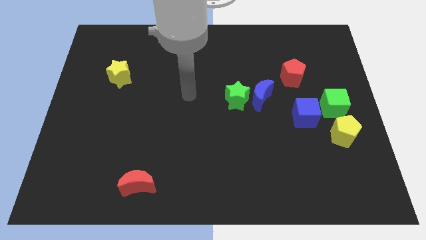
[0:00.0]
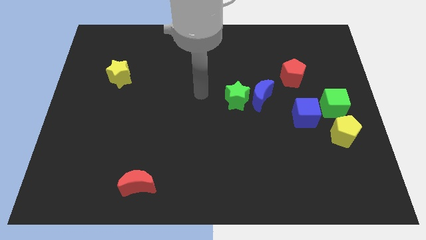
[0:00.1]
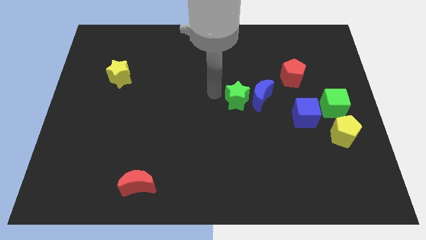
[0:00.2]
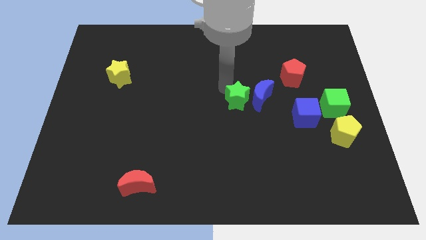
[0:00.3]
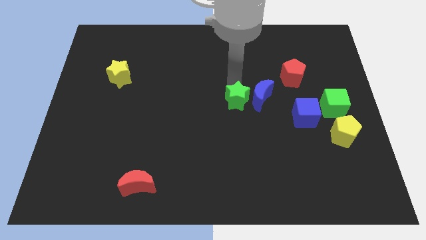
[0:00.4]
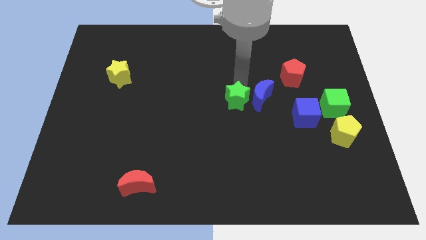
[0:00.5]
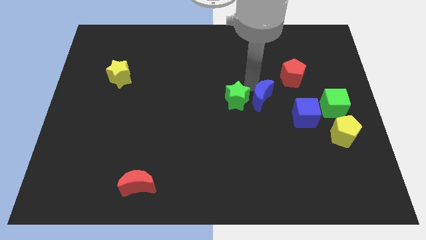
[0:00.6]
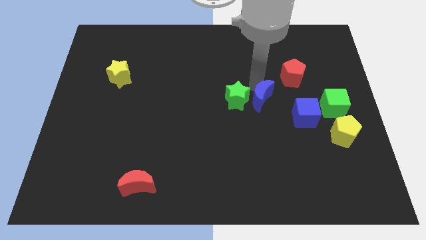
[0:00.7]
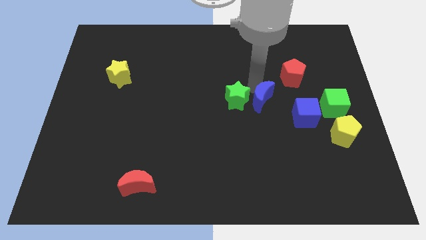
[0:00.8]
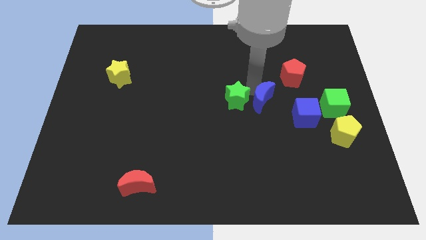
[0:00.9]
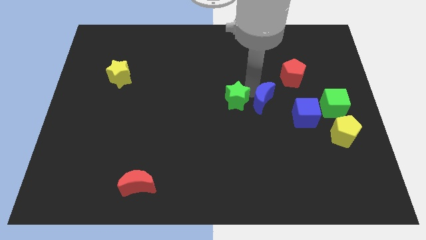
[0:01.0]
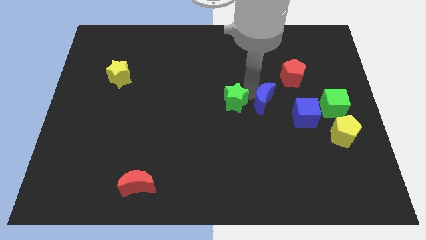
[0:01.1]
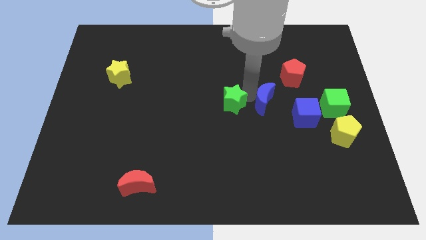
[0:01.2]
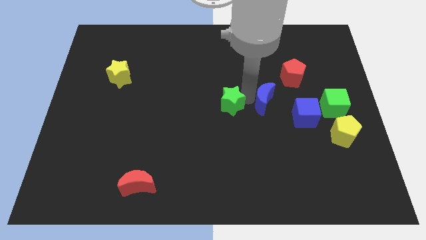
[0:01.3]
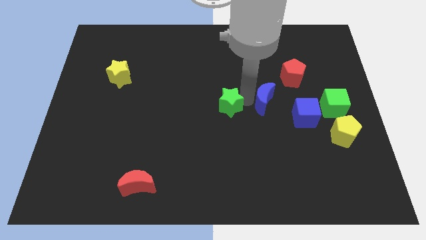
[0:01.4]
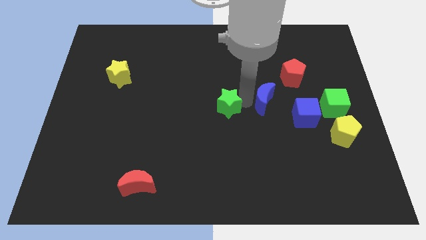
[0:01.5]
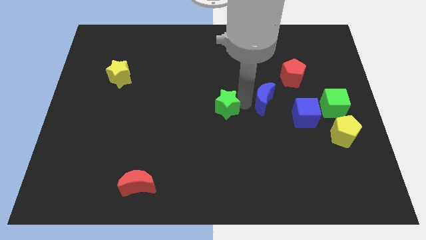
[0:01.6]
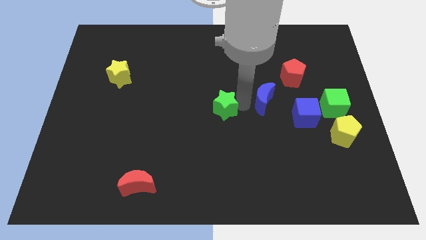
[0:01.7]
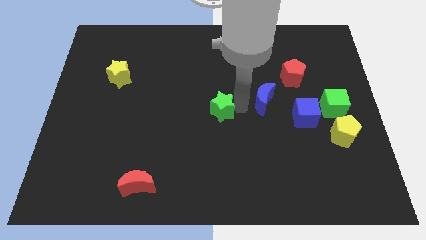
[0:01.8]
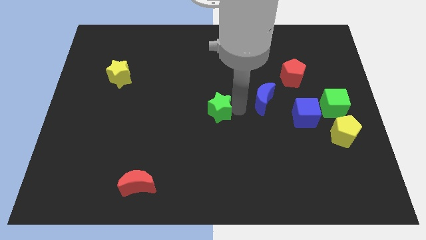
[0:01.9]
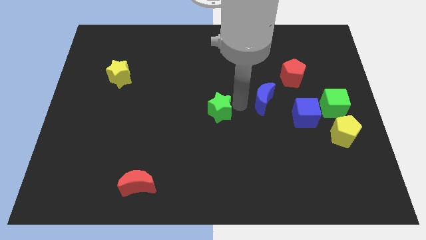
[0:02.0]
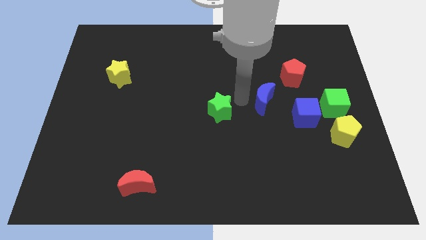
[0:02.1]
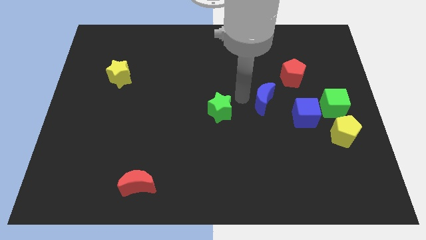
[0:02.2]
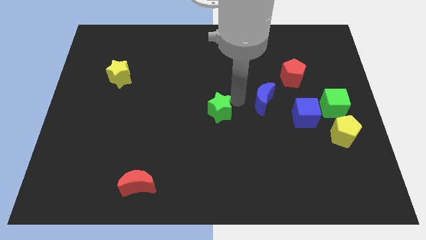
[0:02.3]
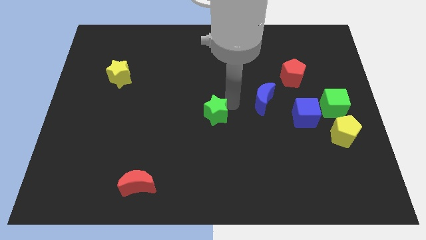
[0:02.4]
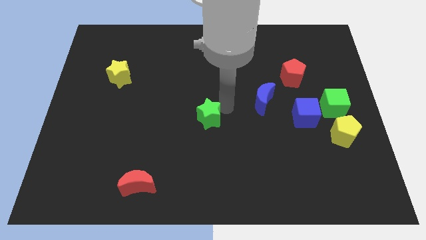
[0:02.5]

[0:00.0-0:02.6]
push the green star diagonally downwards and left a little bit

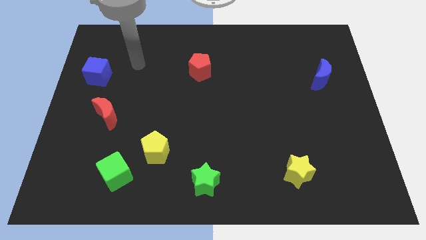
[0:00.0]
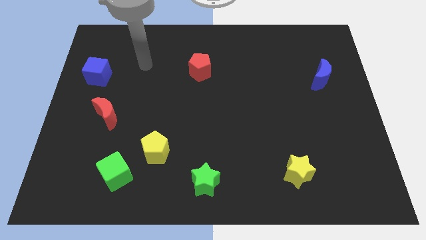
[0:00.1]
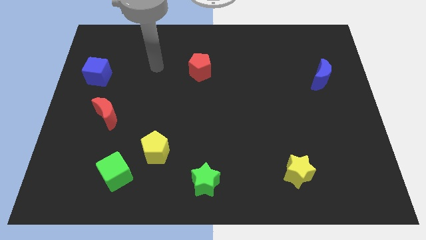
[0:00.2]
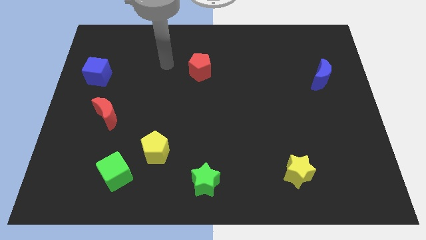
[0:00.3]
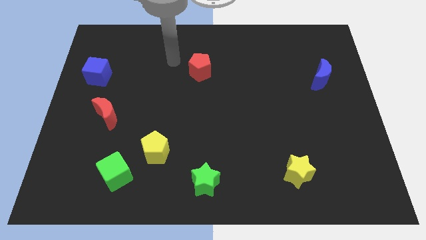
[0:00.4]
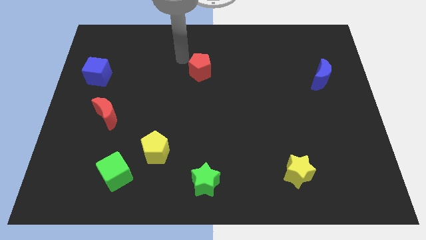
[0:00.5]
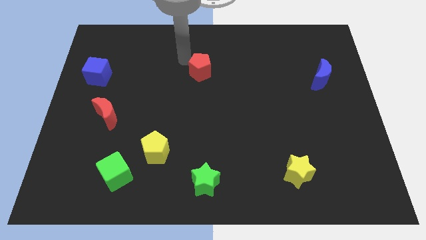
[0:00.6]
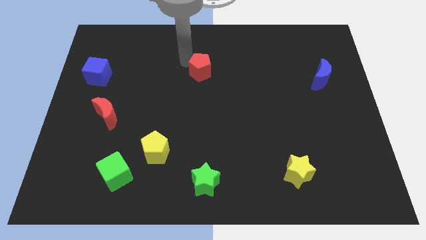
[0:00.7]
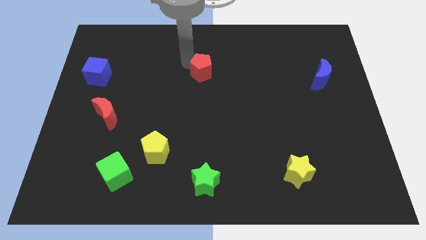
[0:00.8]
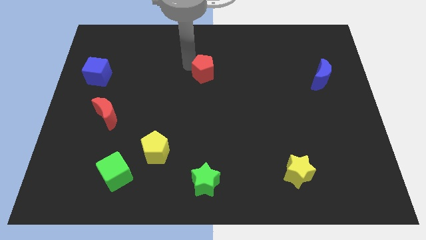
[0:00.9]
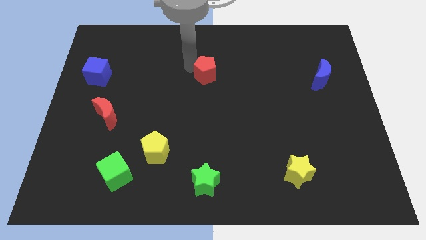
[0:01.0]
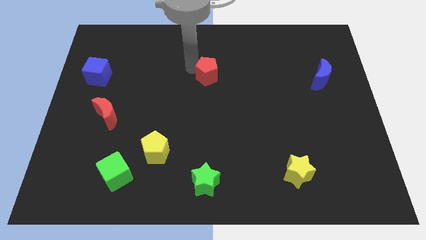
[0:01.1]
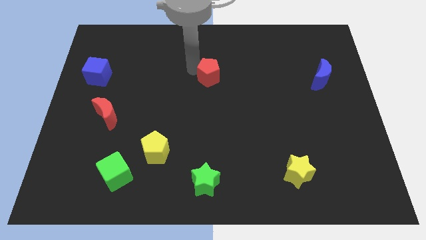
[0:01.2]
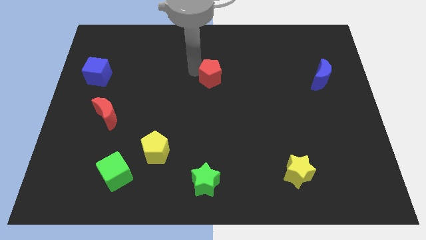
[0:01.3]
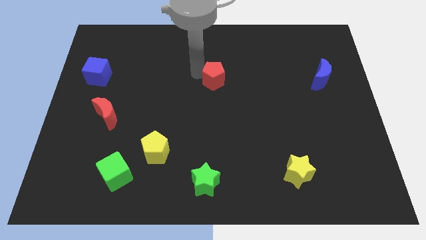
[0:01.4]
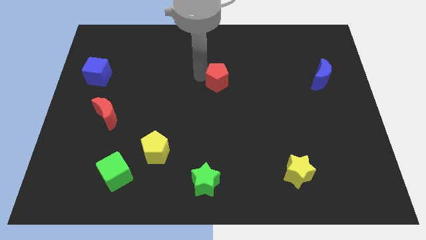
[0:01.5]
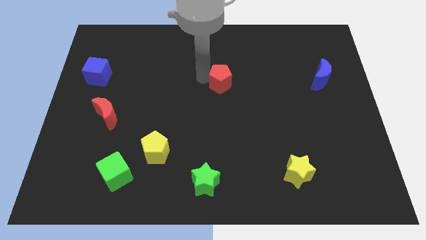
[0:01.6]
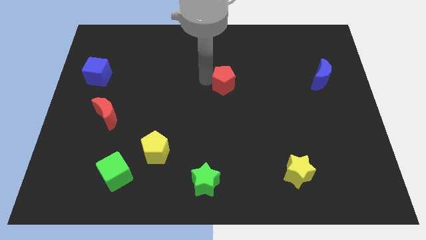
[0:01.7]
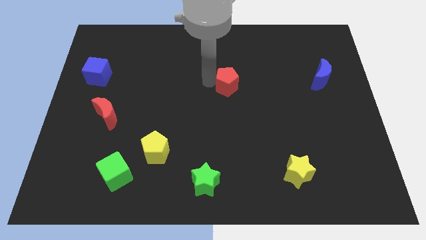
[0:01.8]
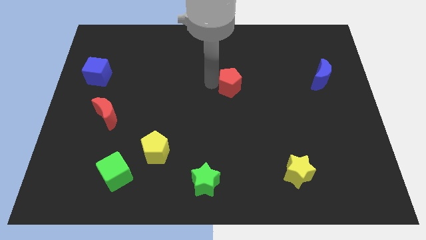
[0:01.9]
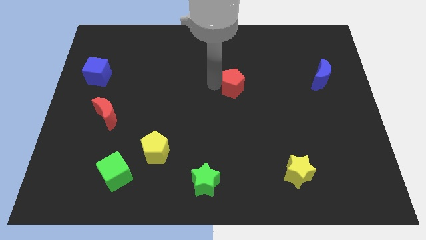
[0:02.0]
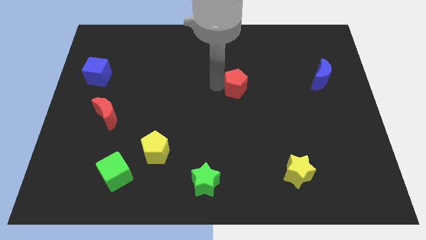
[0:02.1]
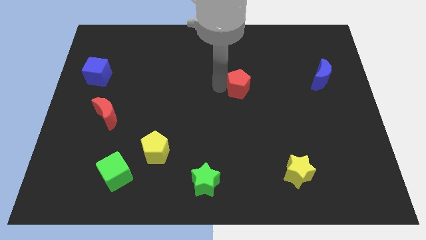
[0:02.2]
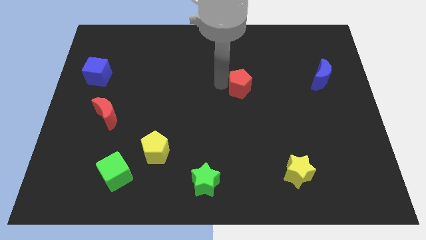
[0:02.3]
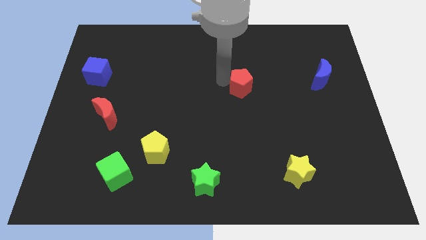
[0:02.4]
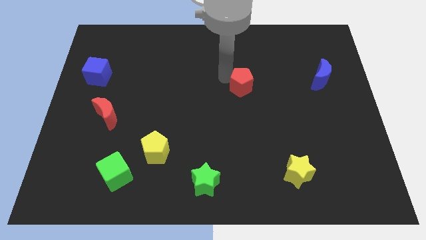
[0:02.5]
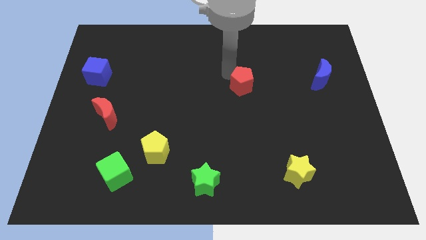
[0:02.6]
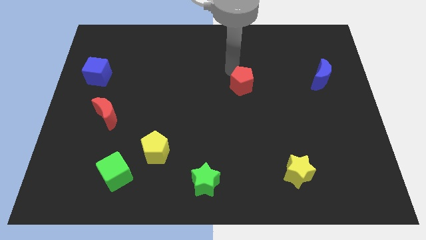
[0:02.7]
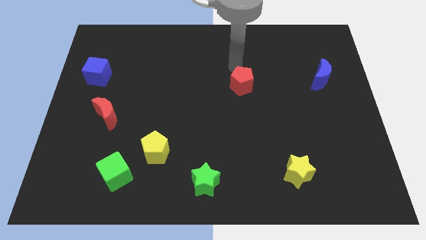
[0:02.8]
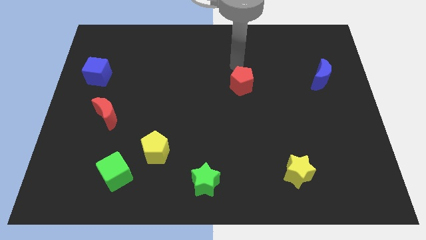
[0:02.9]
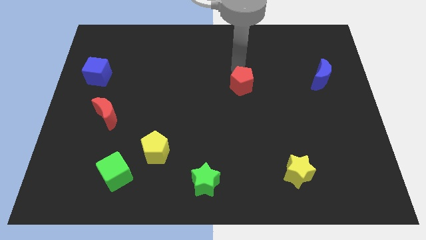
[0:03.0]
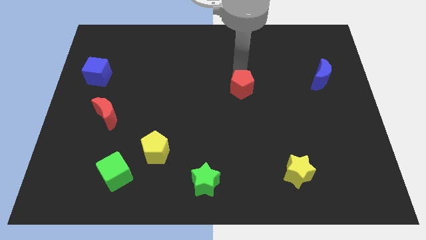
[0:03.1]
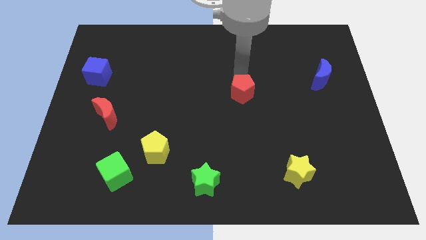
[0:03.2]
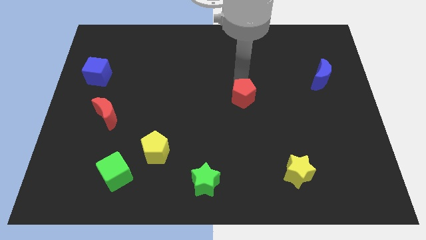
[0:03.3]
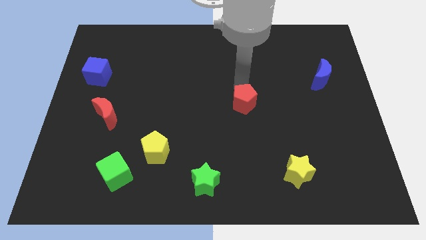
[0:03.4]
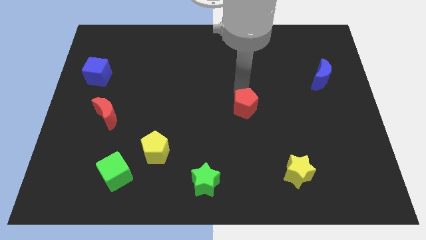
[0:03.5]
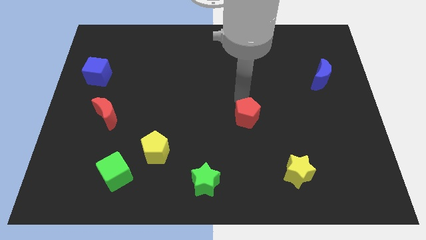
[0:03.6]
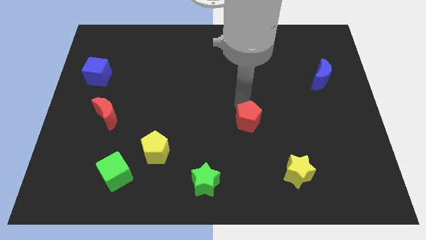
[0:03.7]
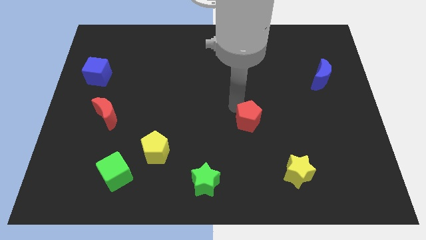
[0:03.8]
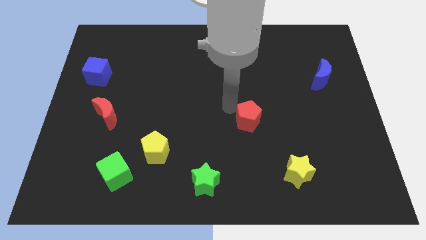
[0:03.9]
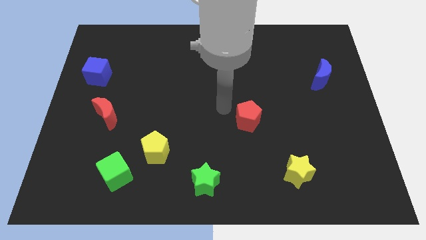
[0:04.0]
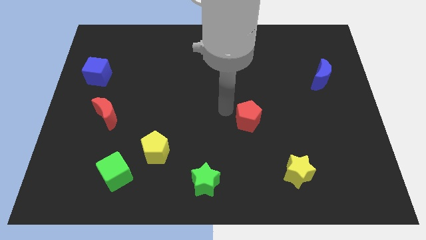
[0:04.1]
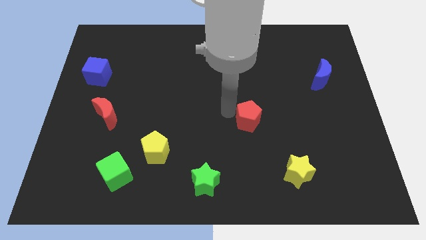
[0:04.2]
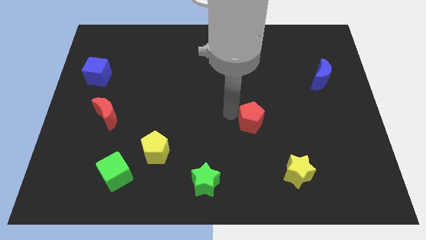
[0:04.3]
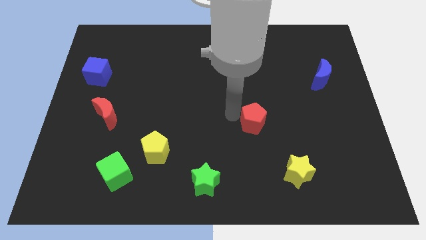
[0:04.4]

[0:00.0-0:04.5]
push the red pentagon down and to the right

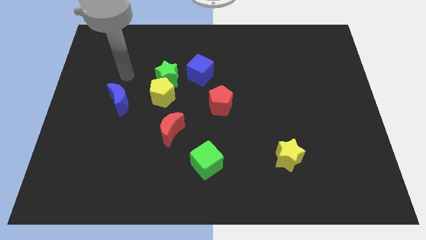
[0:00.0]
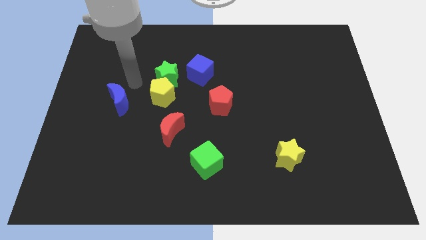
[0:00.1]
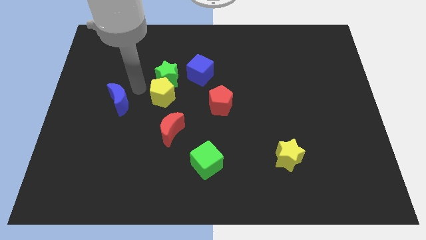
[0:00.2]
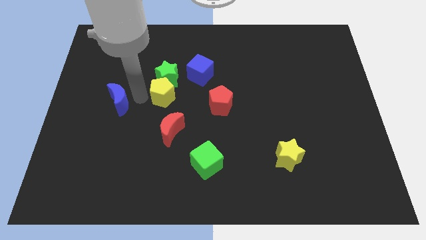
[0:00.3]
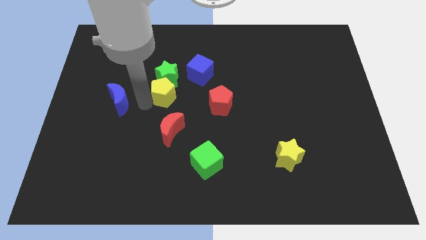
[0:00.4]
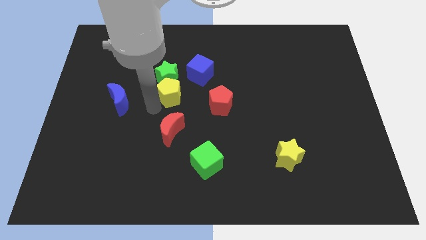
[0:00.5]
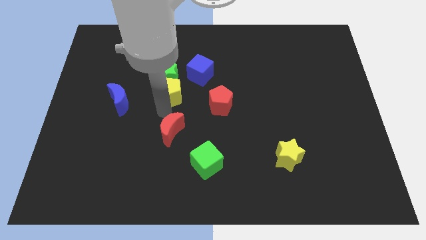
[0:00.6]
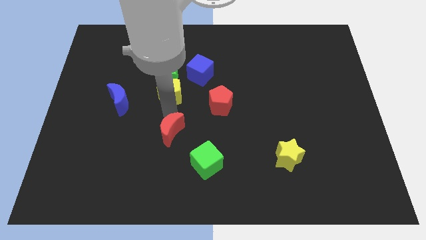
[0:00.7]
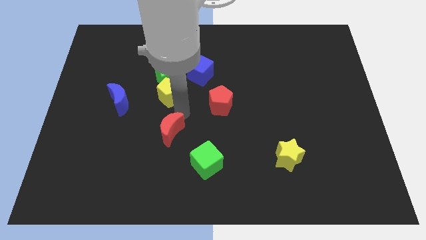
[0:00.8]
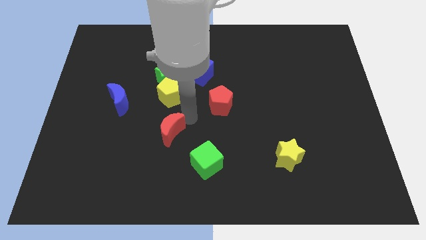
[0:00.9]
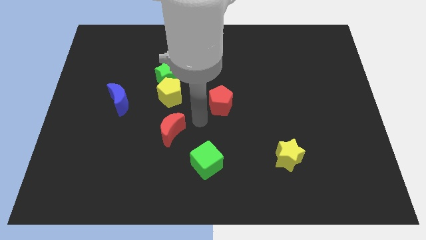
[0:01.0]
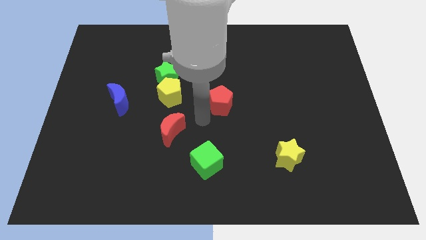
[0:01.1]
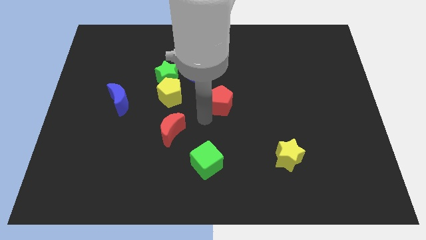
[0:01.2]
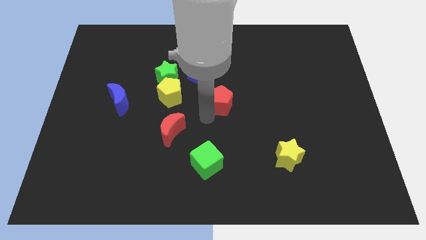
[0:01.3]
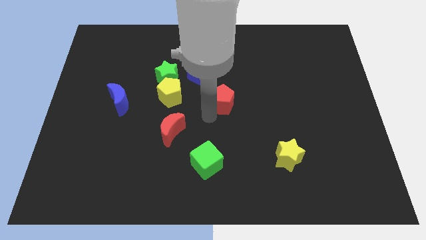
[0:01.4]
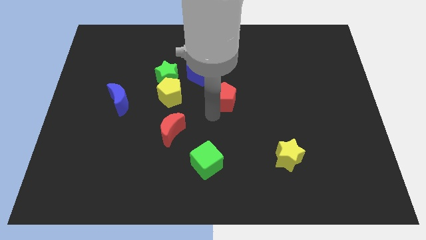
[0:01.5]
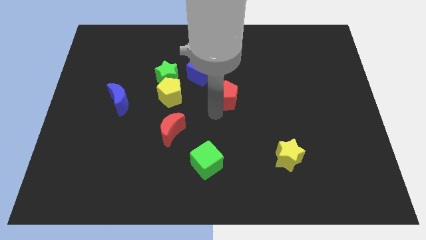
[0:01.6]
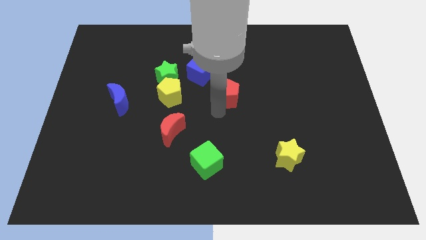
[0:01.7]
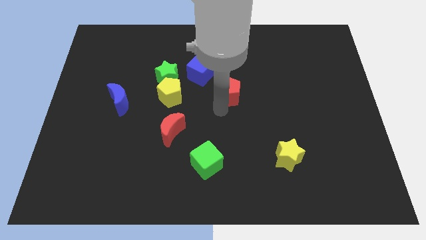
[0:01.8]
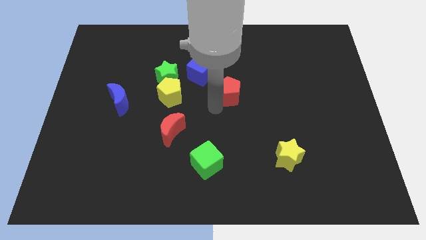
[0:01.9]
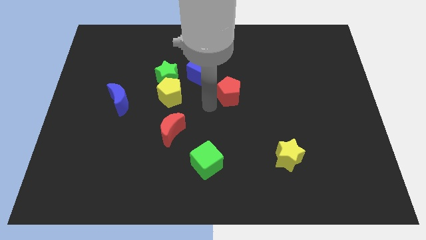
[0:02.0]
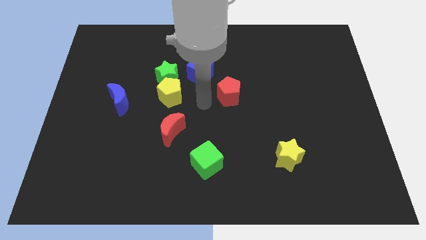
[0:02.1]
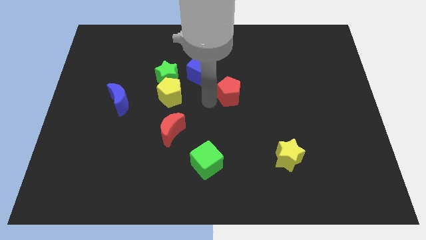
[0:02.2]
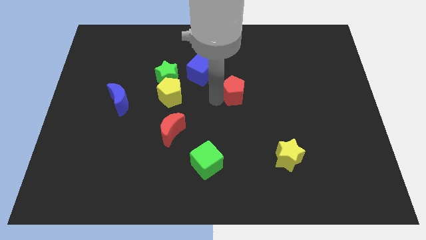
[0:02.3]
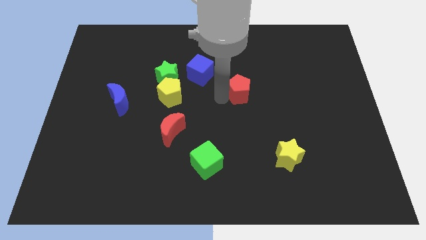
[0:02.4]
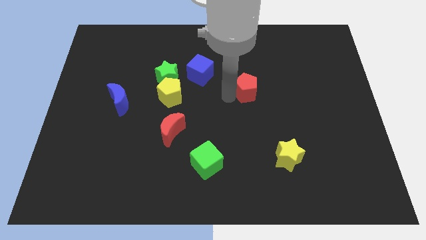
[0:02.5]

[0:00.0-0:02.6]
push the red pentagon a bit upwards and to the right
